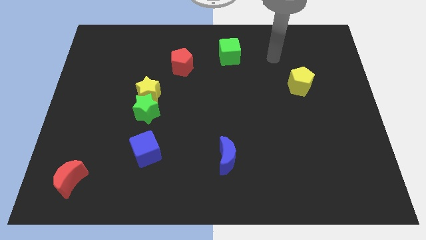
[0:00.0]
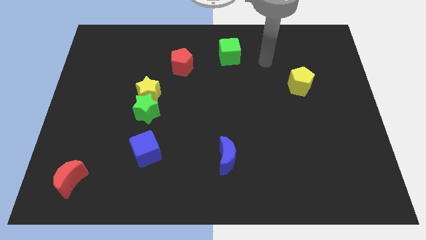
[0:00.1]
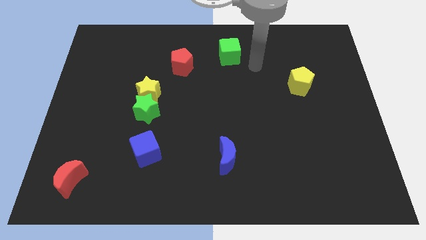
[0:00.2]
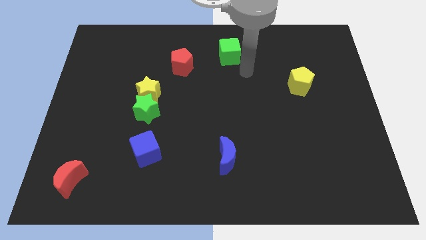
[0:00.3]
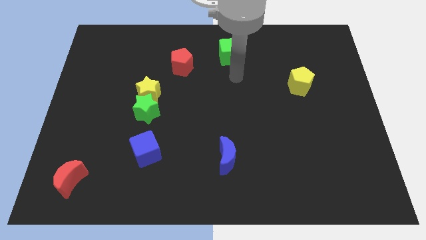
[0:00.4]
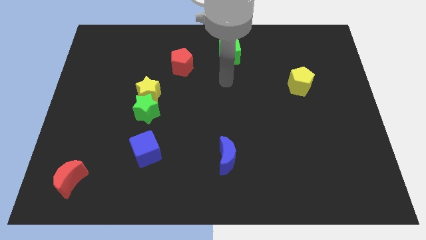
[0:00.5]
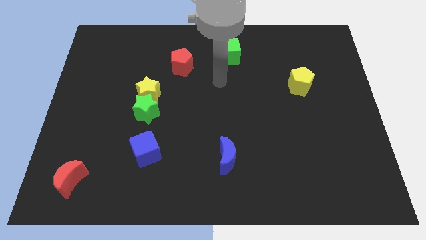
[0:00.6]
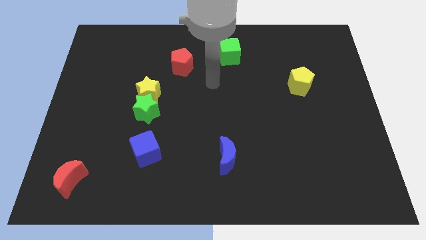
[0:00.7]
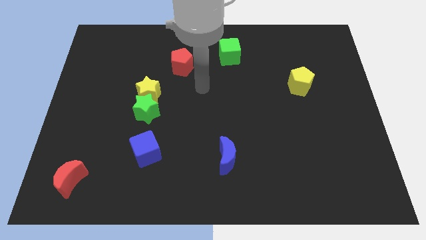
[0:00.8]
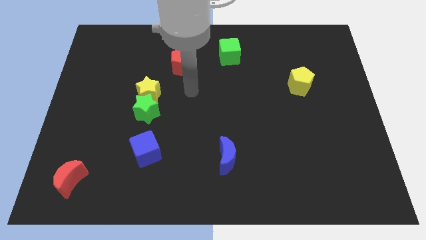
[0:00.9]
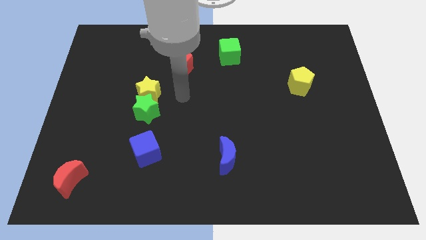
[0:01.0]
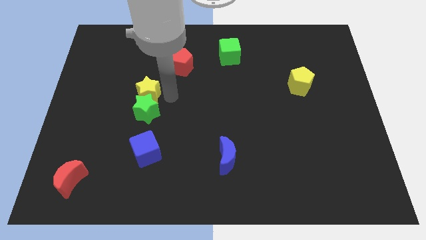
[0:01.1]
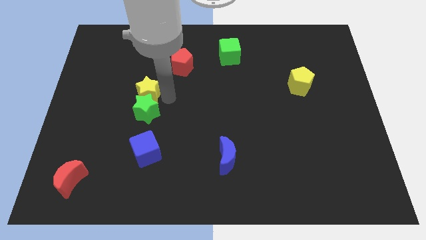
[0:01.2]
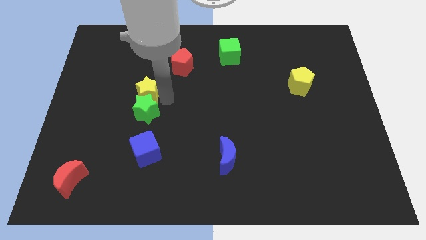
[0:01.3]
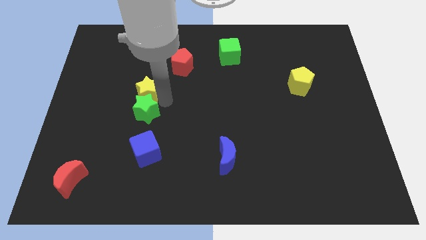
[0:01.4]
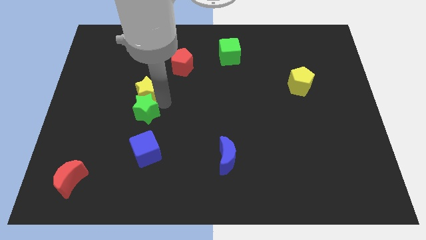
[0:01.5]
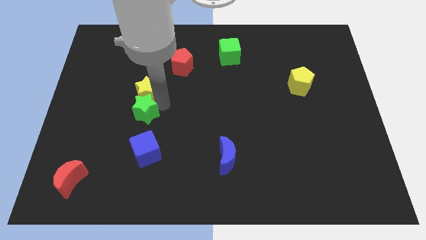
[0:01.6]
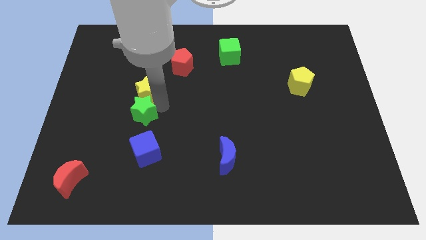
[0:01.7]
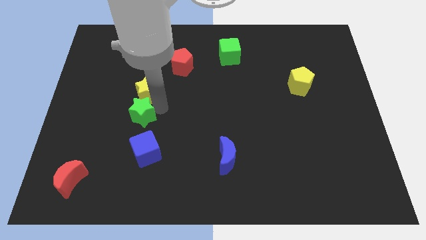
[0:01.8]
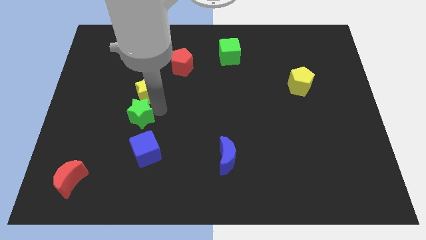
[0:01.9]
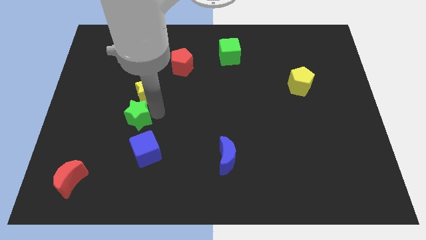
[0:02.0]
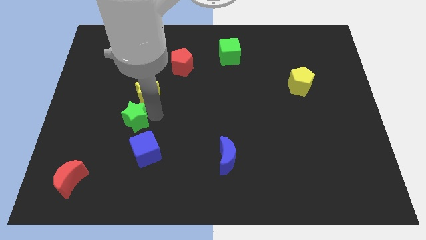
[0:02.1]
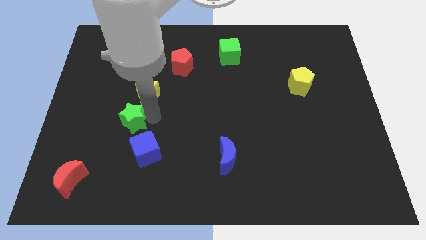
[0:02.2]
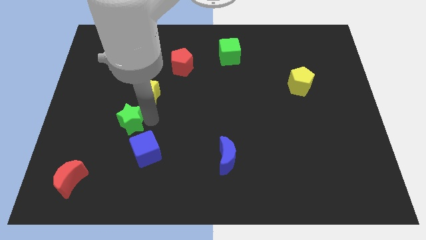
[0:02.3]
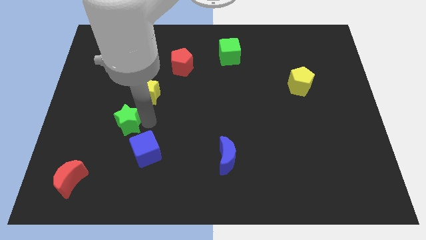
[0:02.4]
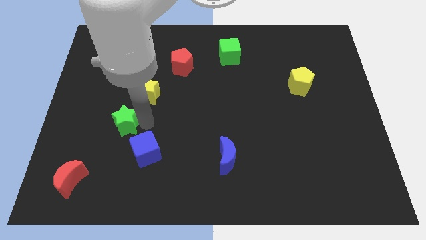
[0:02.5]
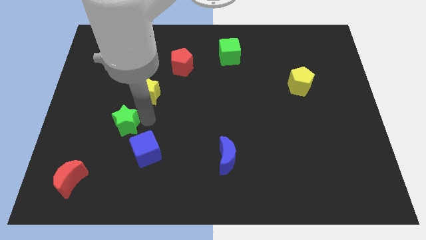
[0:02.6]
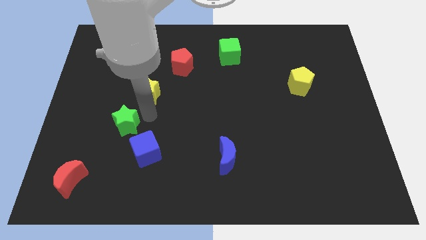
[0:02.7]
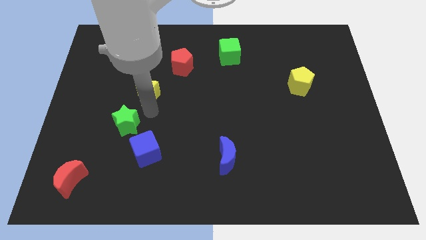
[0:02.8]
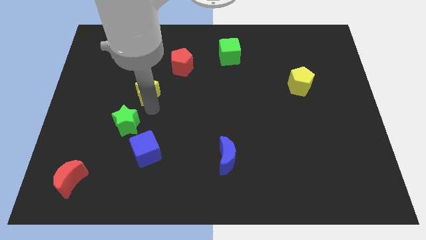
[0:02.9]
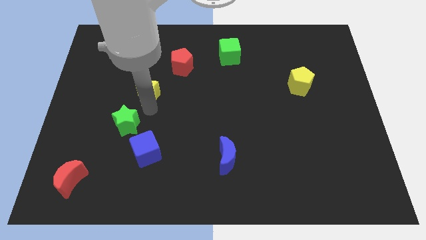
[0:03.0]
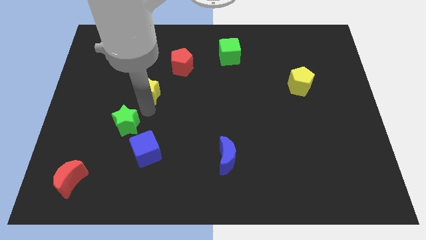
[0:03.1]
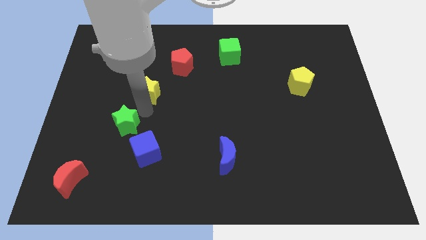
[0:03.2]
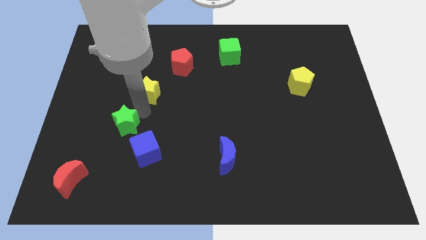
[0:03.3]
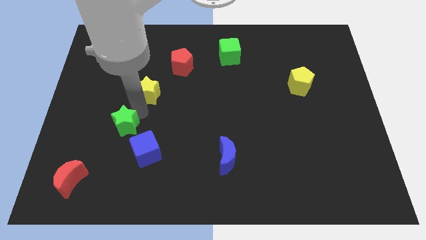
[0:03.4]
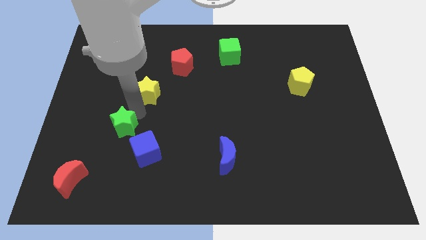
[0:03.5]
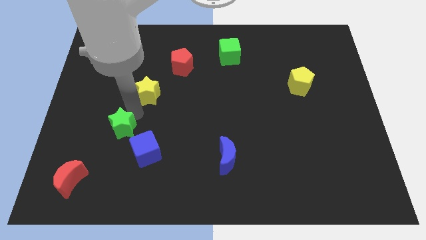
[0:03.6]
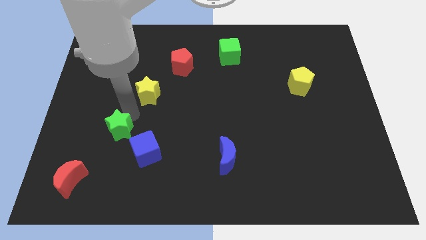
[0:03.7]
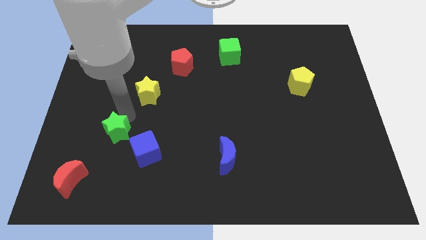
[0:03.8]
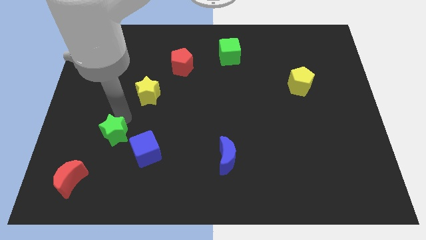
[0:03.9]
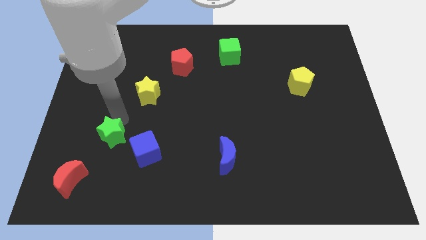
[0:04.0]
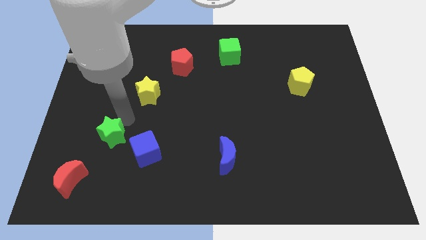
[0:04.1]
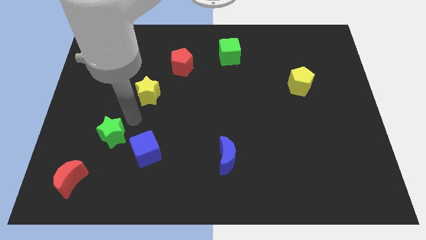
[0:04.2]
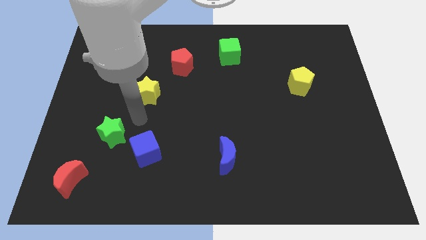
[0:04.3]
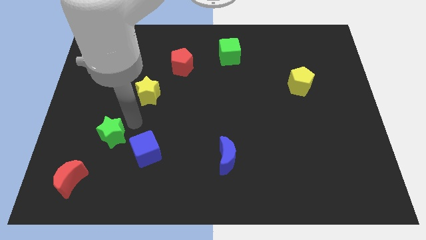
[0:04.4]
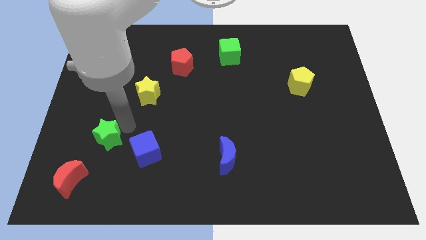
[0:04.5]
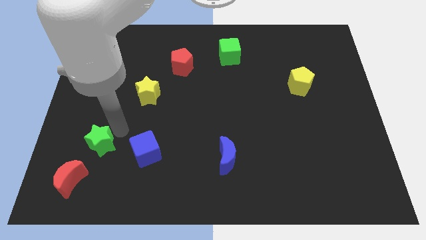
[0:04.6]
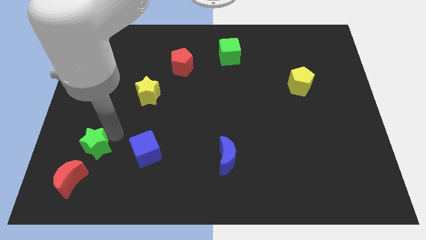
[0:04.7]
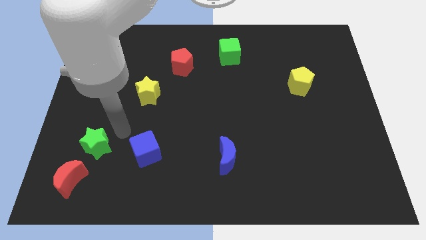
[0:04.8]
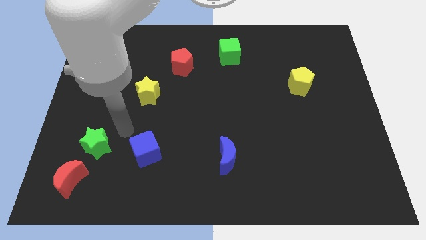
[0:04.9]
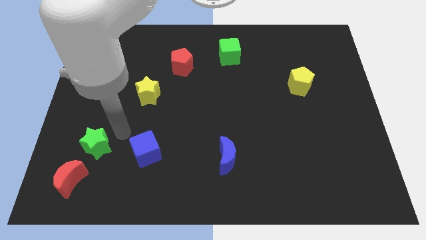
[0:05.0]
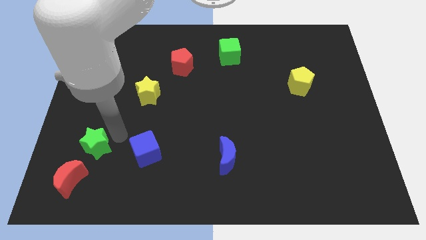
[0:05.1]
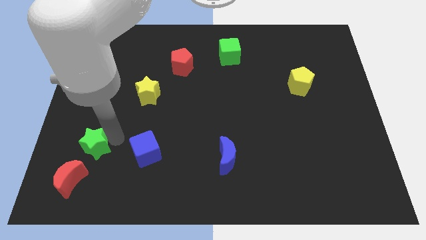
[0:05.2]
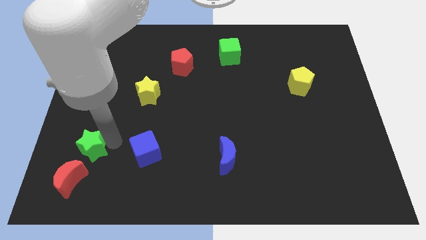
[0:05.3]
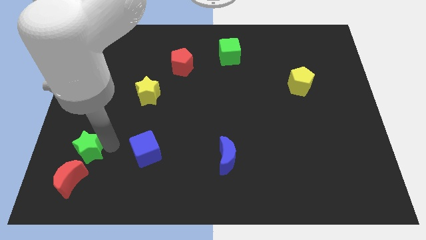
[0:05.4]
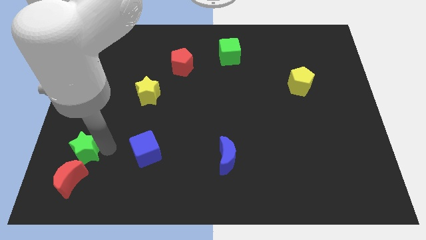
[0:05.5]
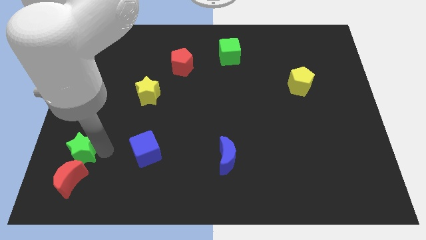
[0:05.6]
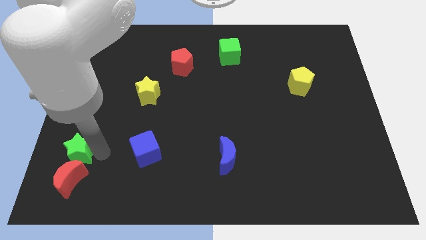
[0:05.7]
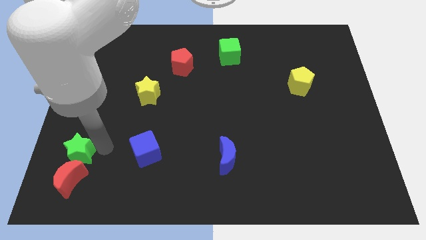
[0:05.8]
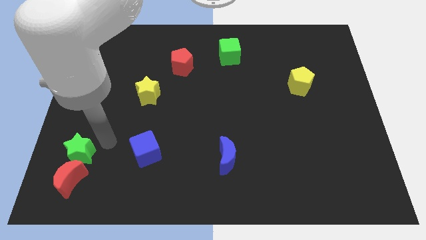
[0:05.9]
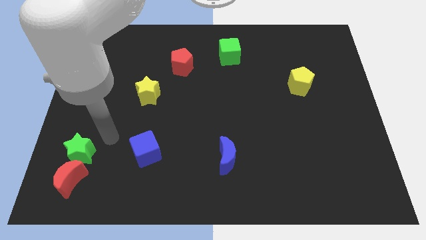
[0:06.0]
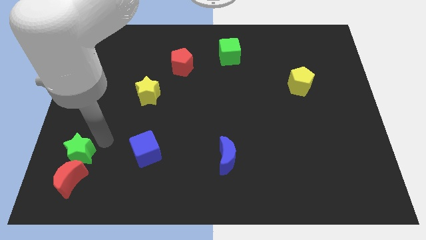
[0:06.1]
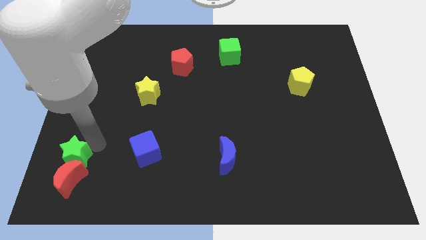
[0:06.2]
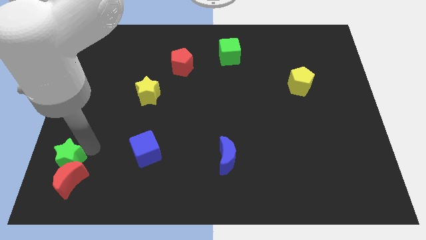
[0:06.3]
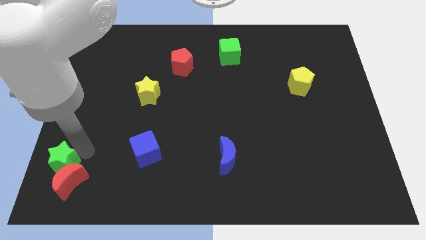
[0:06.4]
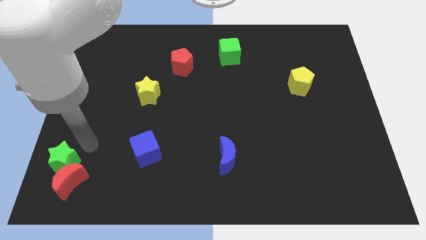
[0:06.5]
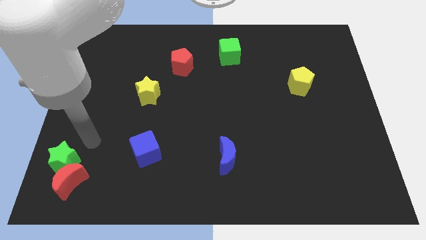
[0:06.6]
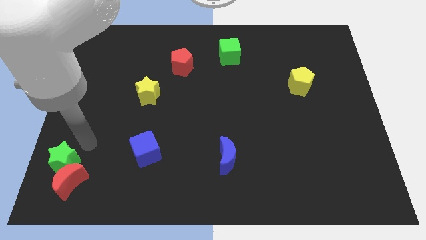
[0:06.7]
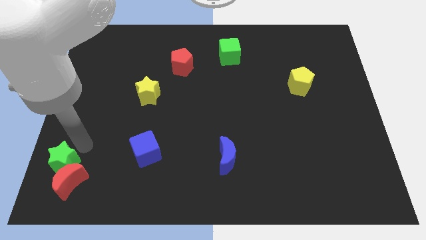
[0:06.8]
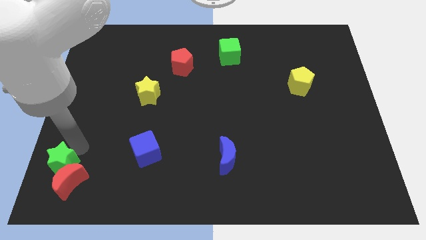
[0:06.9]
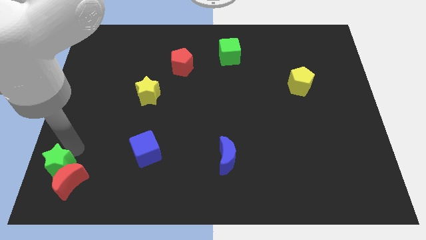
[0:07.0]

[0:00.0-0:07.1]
push the green star to the bottom left

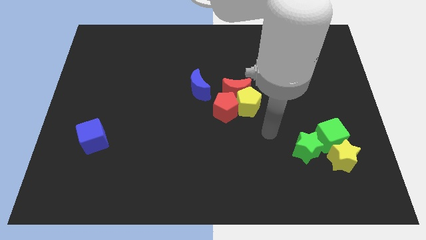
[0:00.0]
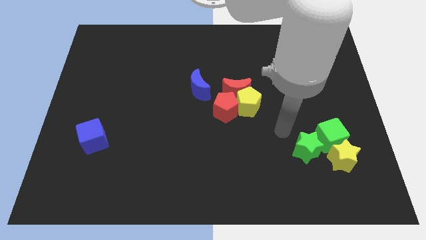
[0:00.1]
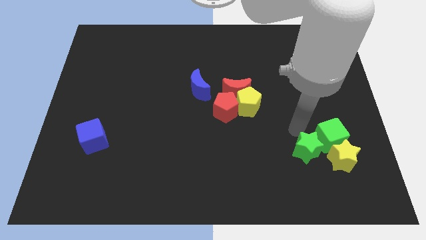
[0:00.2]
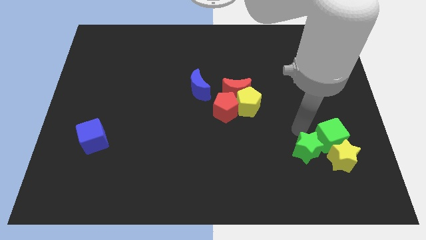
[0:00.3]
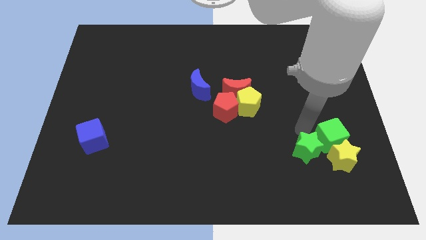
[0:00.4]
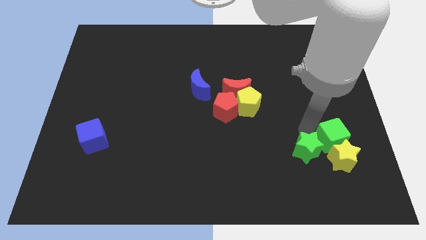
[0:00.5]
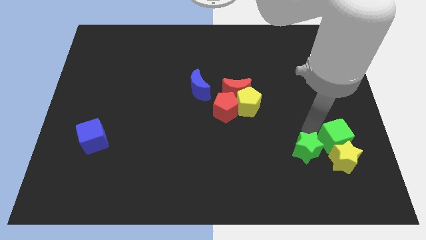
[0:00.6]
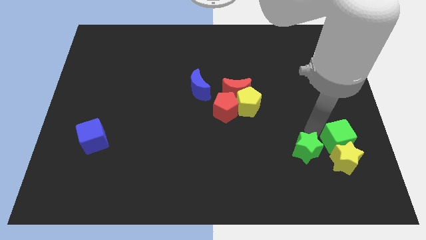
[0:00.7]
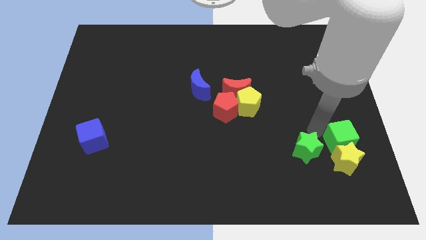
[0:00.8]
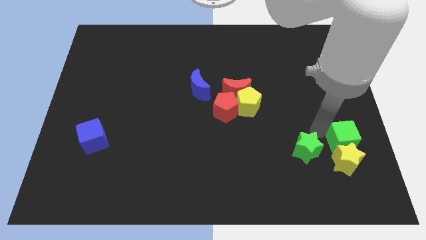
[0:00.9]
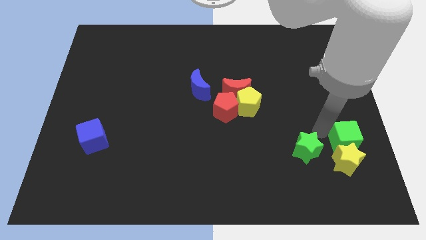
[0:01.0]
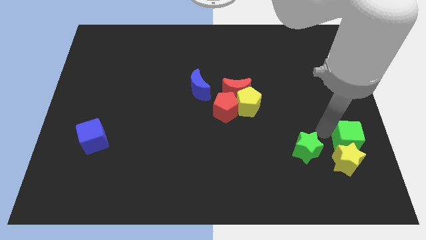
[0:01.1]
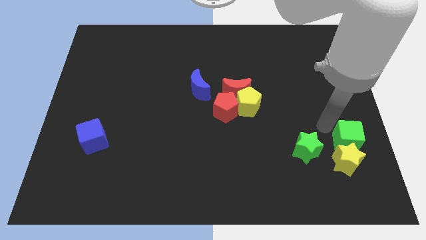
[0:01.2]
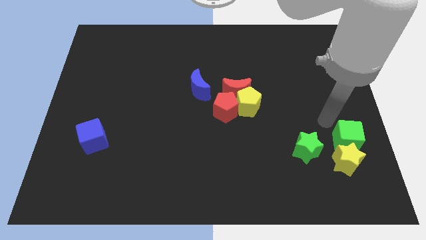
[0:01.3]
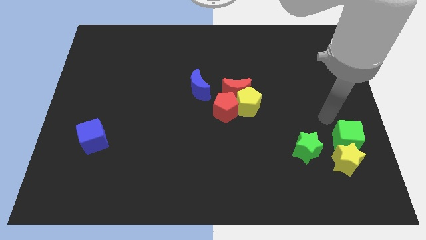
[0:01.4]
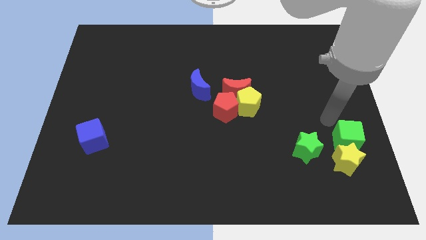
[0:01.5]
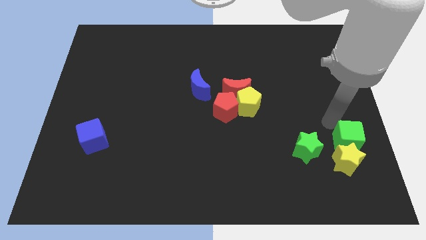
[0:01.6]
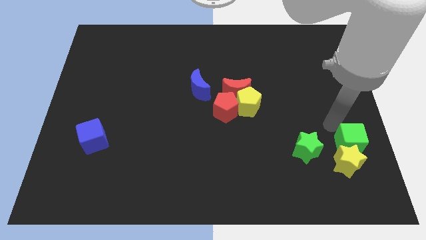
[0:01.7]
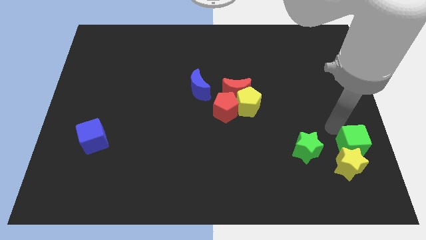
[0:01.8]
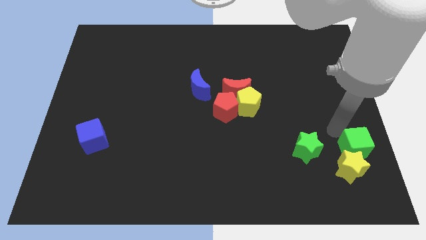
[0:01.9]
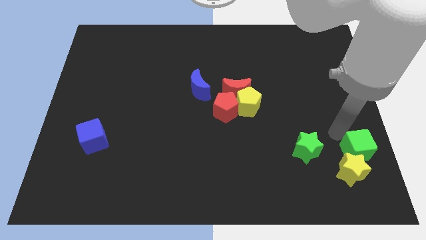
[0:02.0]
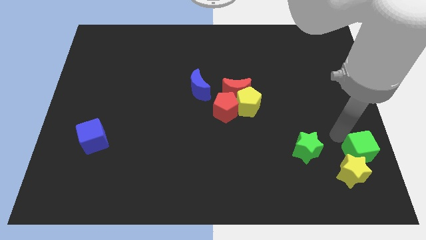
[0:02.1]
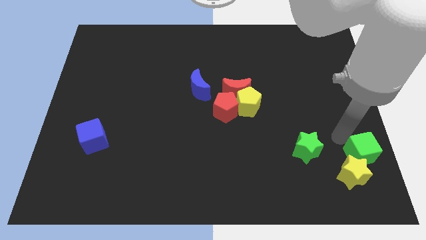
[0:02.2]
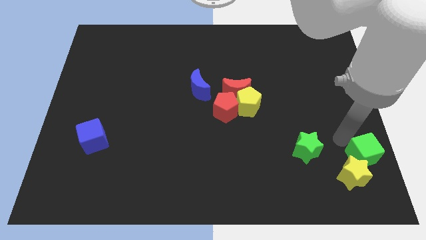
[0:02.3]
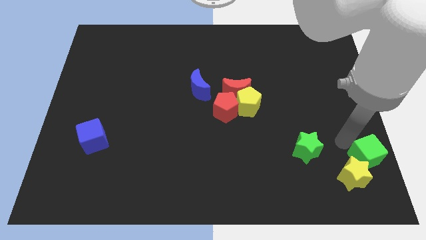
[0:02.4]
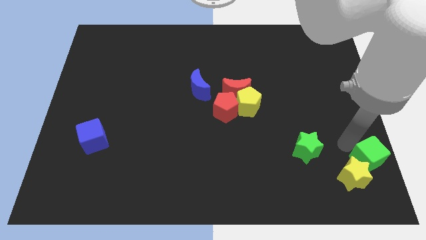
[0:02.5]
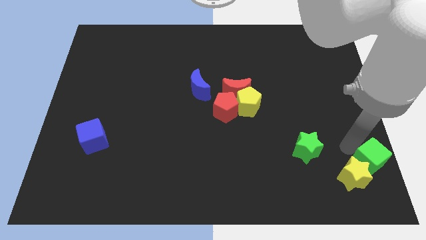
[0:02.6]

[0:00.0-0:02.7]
push the green cube to the bottom right corner
